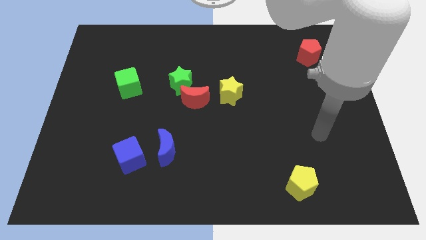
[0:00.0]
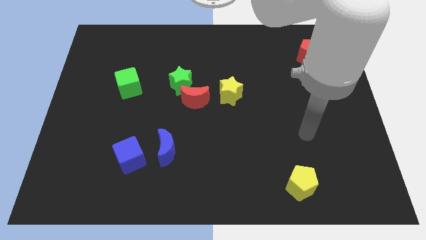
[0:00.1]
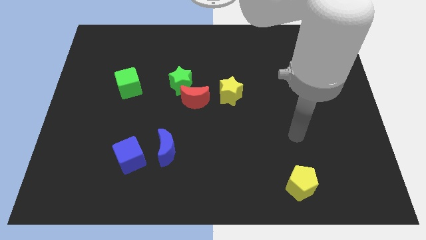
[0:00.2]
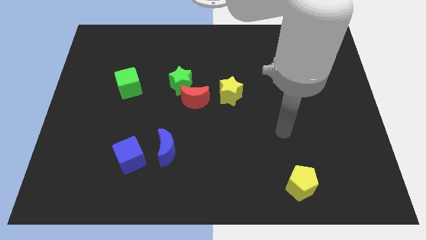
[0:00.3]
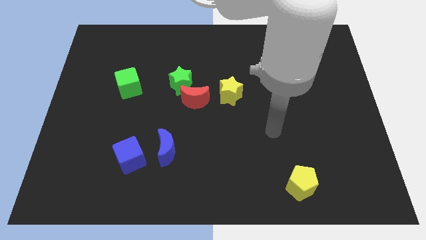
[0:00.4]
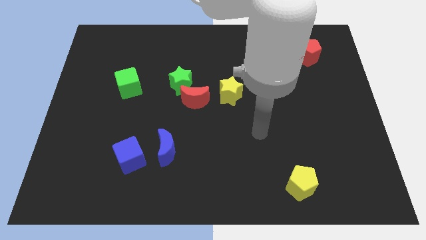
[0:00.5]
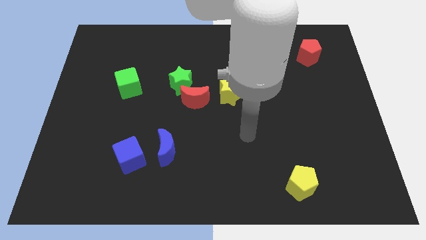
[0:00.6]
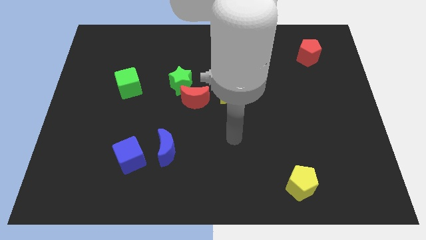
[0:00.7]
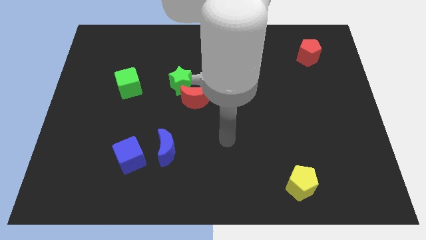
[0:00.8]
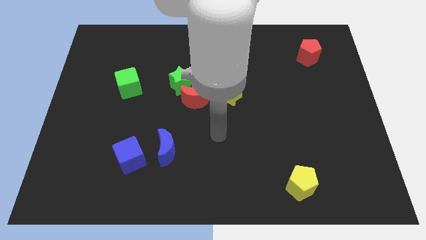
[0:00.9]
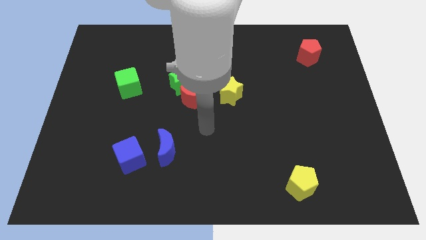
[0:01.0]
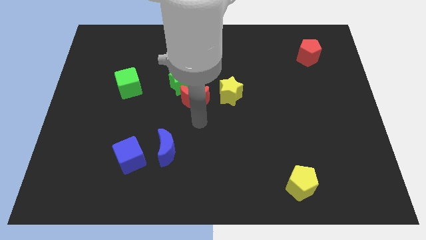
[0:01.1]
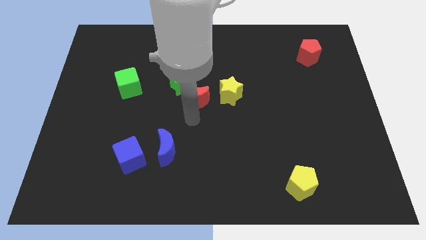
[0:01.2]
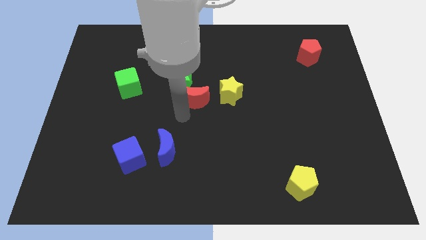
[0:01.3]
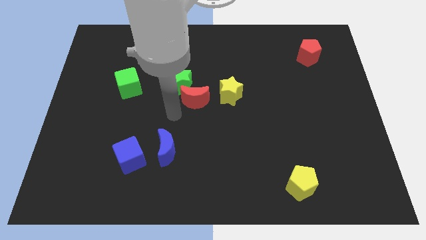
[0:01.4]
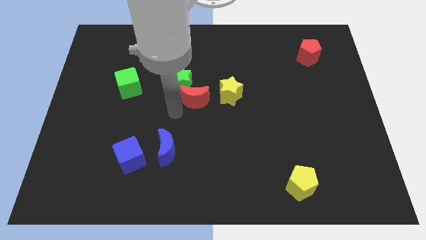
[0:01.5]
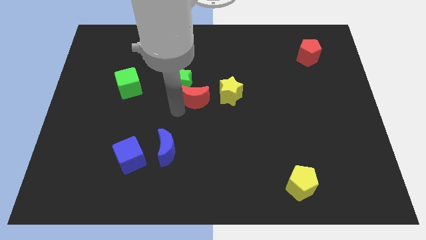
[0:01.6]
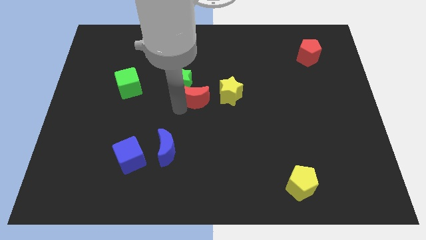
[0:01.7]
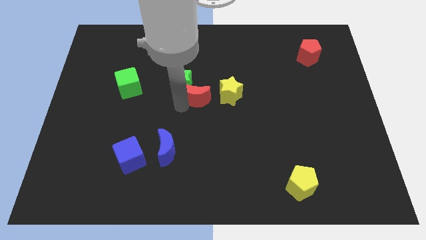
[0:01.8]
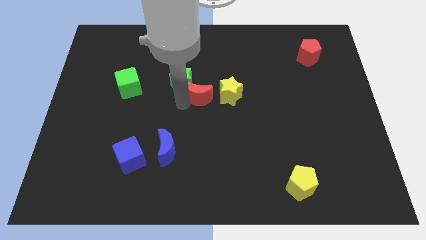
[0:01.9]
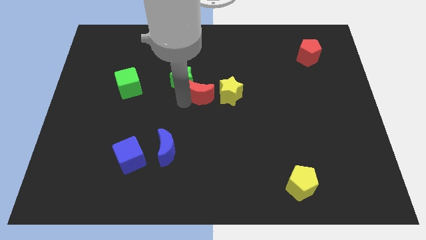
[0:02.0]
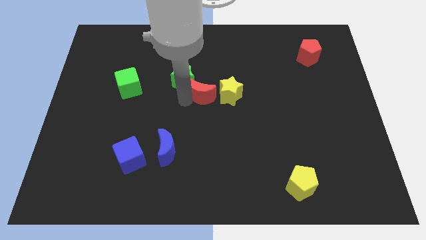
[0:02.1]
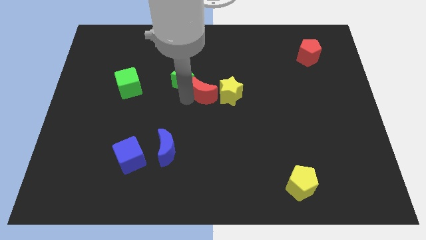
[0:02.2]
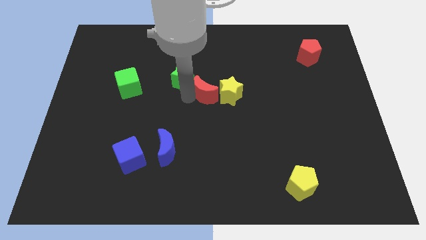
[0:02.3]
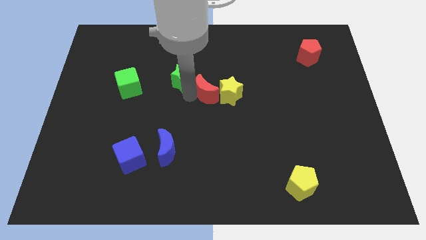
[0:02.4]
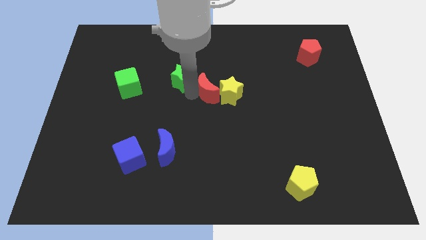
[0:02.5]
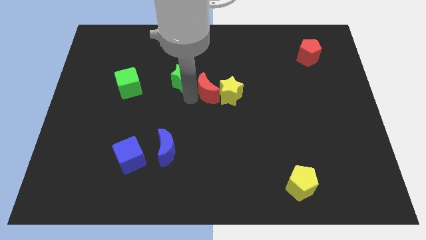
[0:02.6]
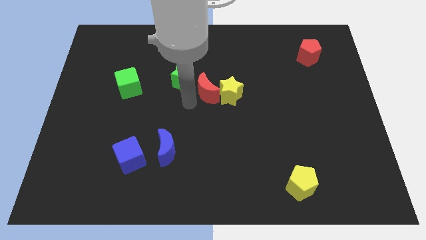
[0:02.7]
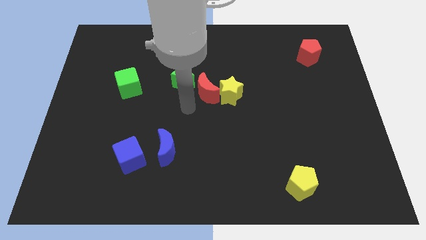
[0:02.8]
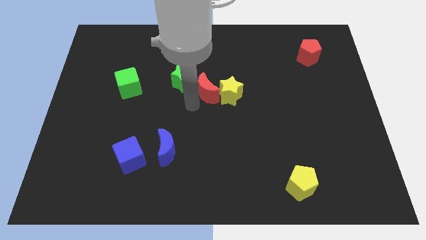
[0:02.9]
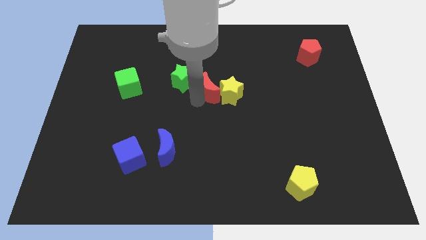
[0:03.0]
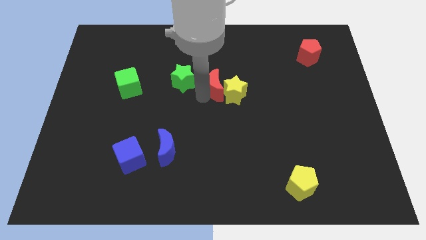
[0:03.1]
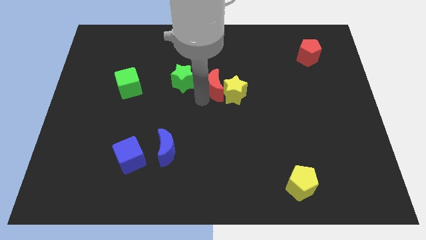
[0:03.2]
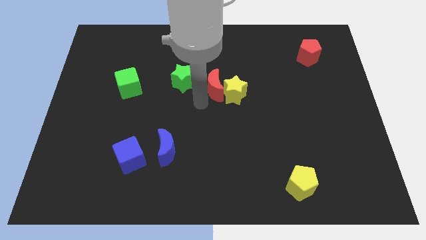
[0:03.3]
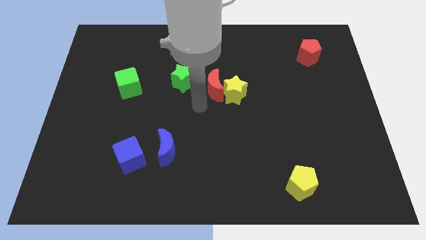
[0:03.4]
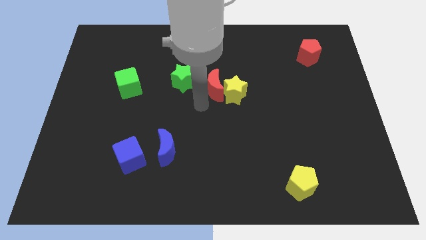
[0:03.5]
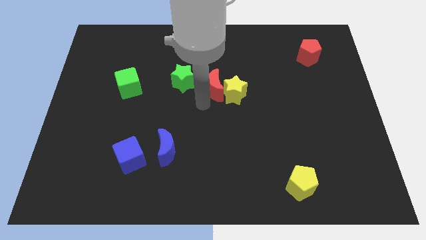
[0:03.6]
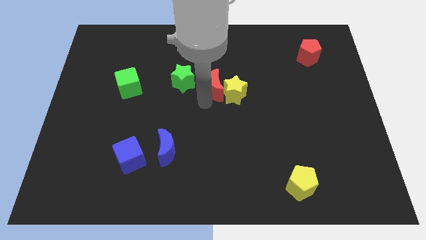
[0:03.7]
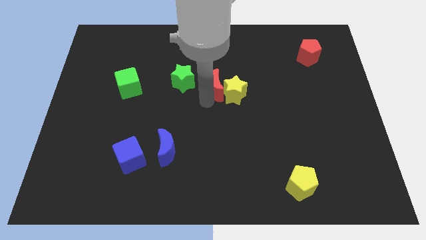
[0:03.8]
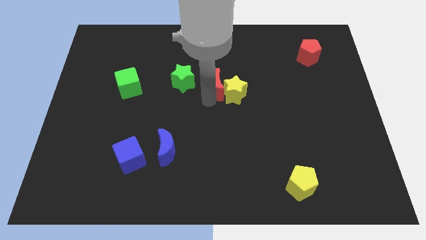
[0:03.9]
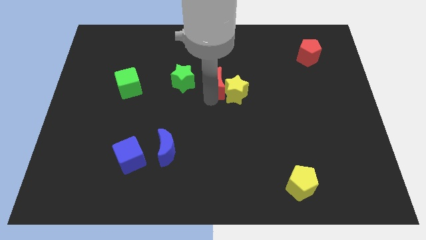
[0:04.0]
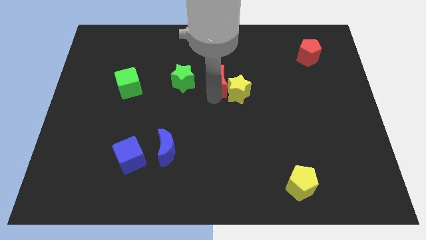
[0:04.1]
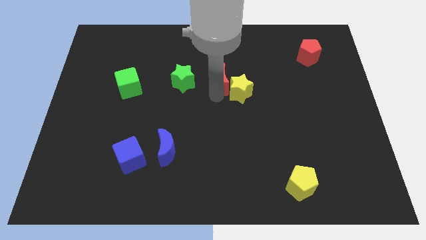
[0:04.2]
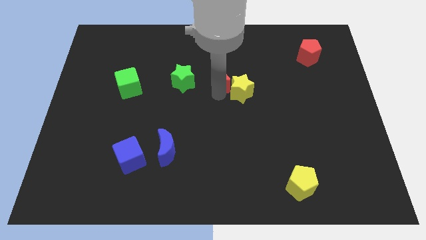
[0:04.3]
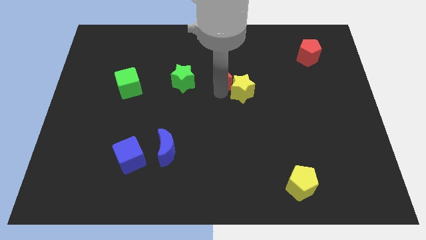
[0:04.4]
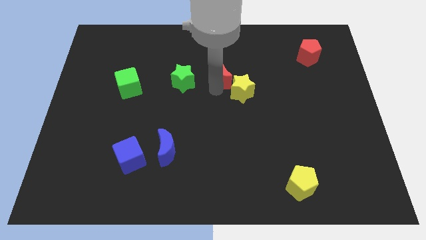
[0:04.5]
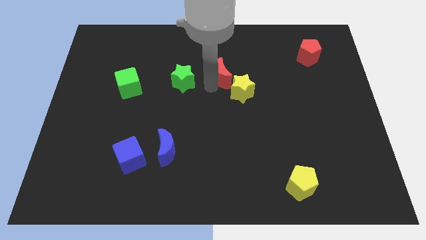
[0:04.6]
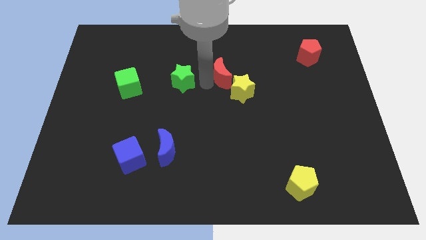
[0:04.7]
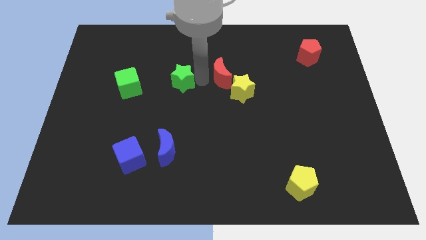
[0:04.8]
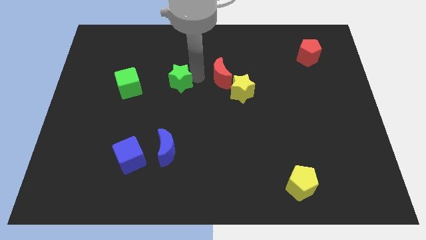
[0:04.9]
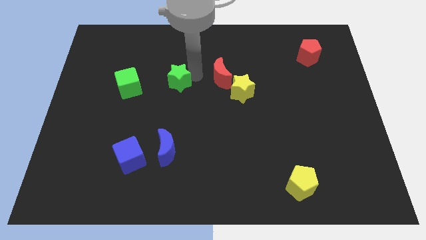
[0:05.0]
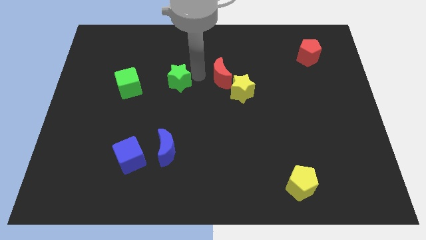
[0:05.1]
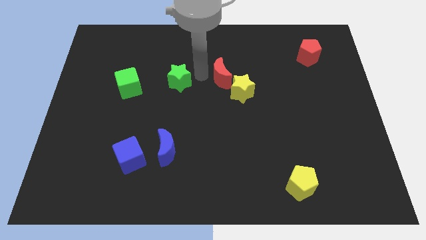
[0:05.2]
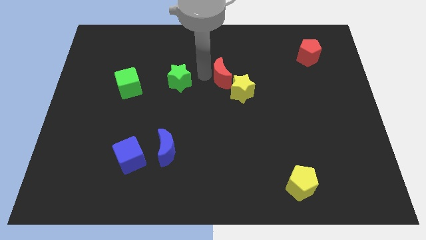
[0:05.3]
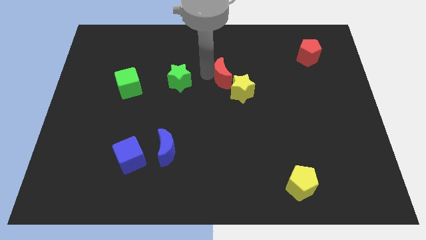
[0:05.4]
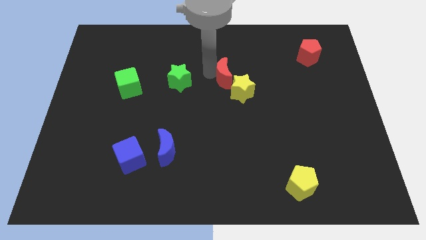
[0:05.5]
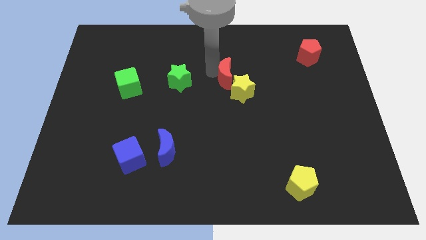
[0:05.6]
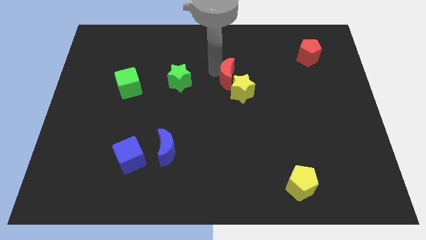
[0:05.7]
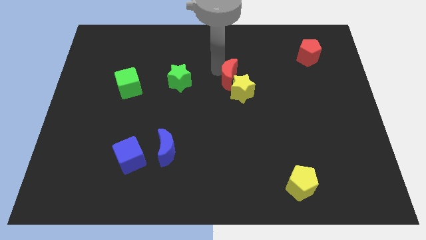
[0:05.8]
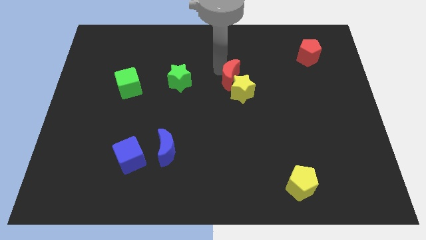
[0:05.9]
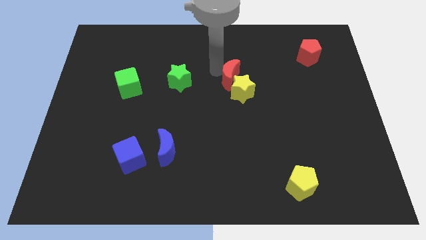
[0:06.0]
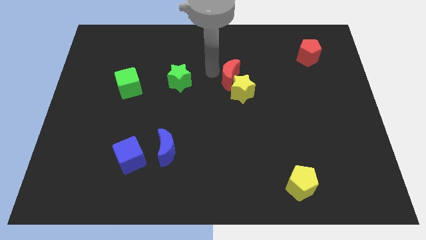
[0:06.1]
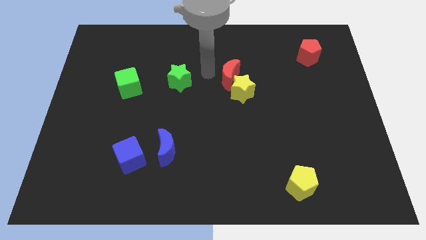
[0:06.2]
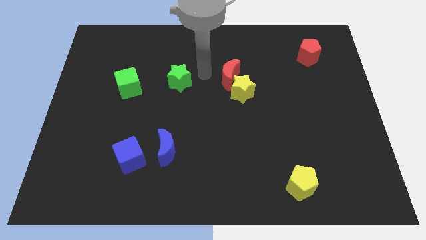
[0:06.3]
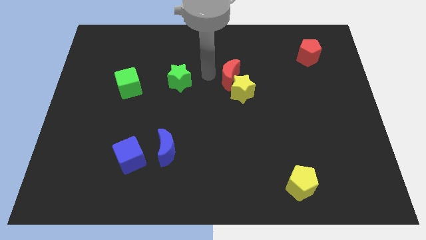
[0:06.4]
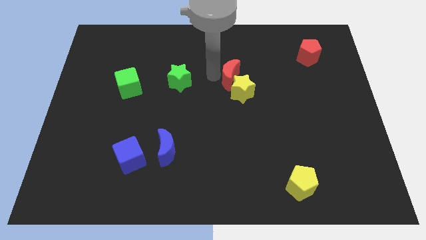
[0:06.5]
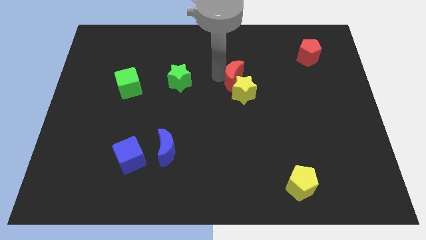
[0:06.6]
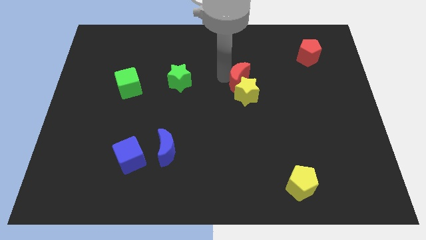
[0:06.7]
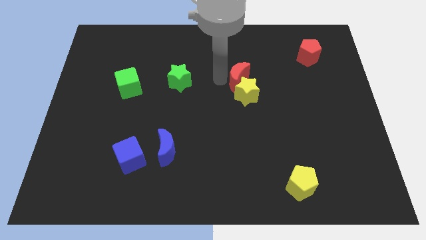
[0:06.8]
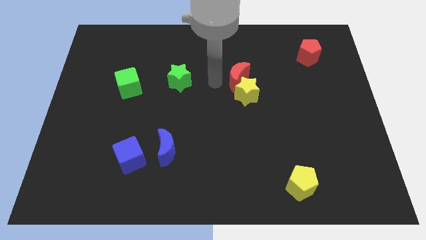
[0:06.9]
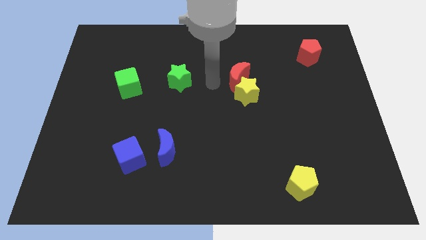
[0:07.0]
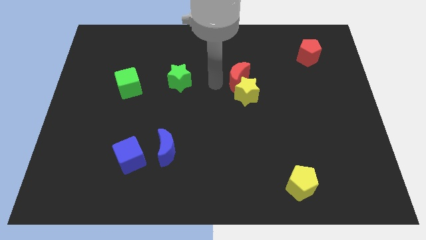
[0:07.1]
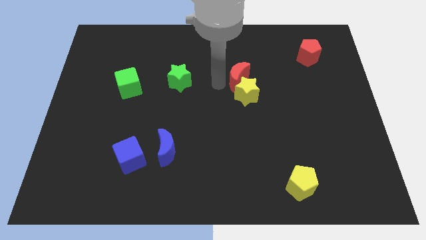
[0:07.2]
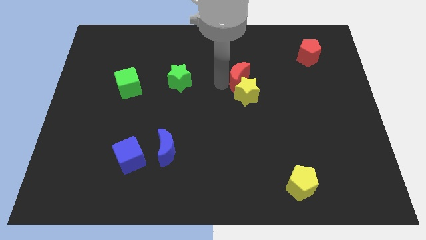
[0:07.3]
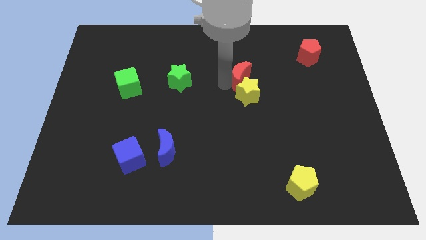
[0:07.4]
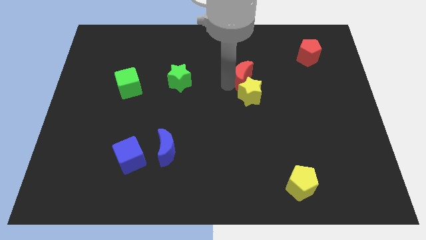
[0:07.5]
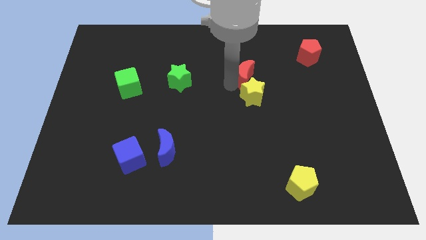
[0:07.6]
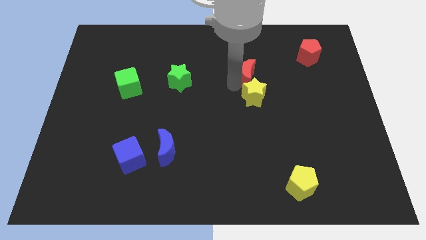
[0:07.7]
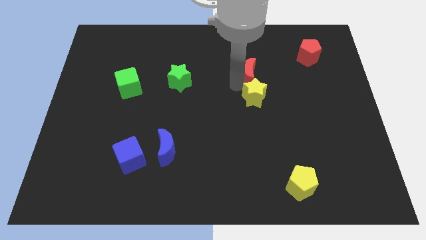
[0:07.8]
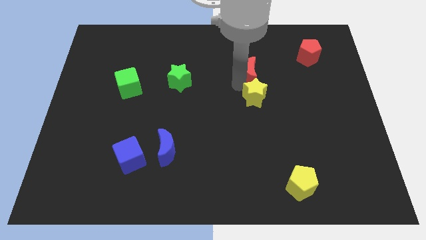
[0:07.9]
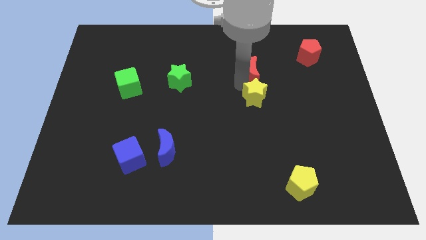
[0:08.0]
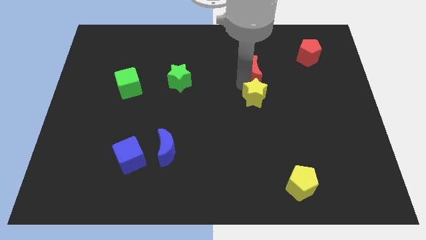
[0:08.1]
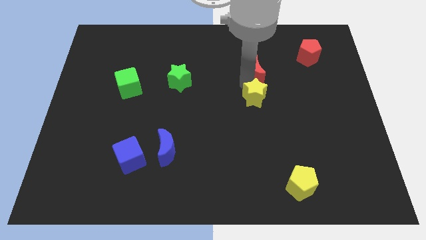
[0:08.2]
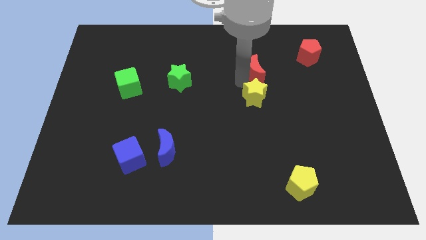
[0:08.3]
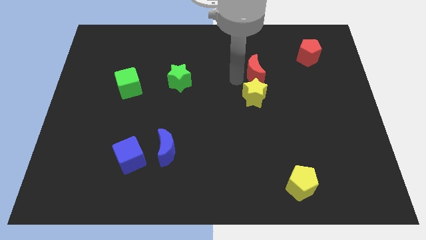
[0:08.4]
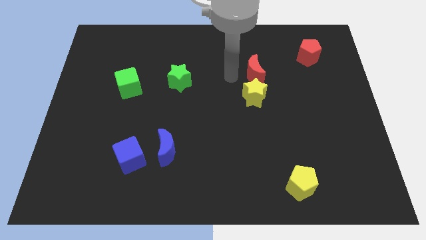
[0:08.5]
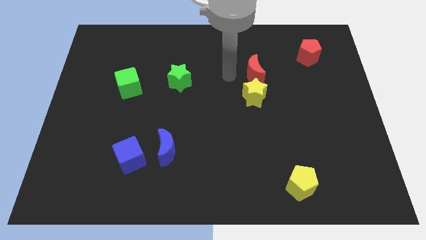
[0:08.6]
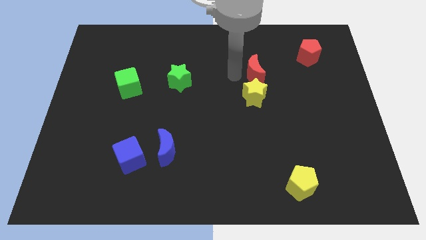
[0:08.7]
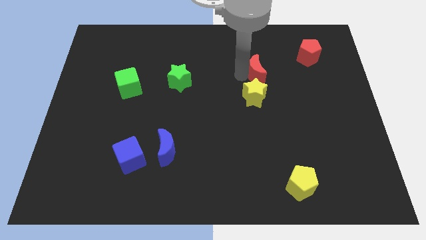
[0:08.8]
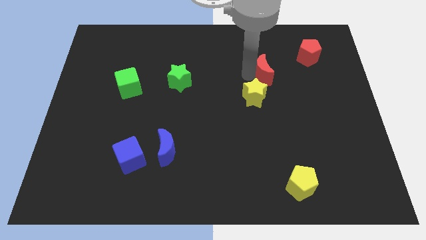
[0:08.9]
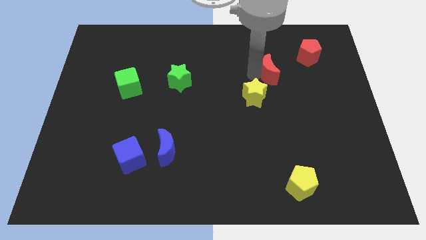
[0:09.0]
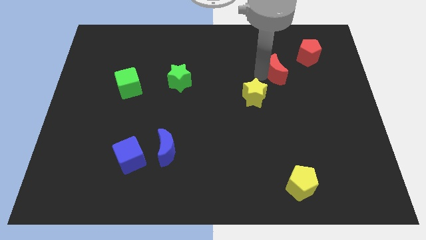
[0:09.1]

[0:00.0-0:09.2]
move the red moon to the bottom left of the red pentagon
